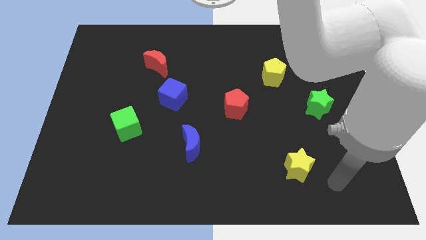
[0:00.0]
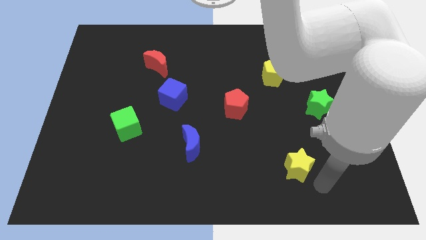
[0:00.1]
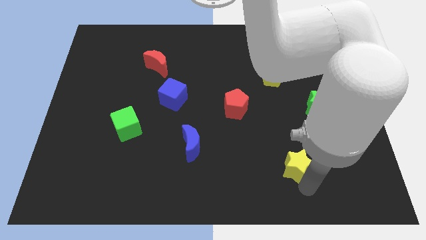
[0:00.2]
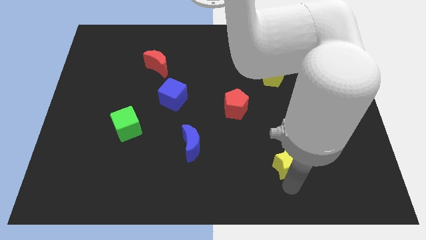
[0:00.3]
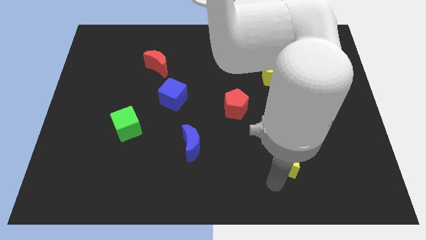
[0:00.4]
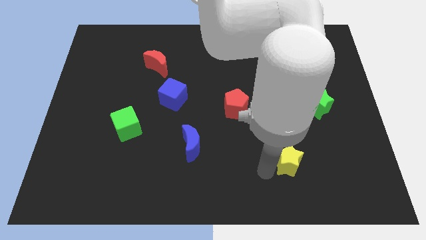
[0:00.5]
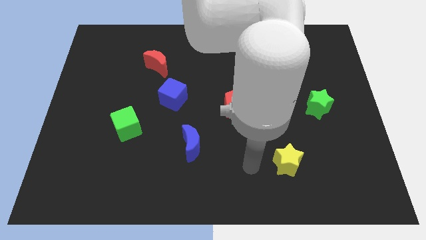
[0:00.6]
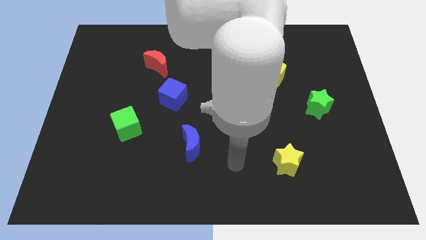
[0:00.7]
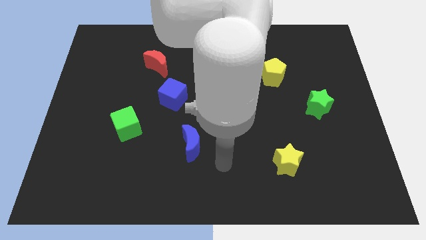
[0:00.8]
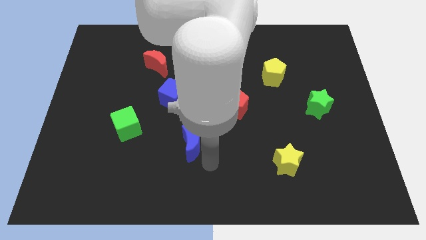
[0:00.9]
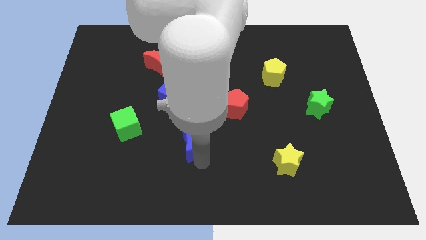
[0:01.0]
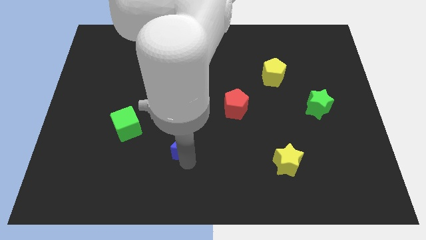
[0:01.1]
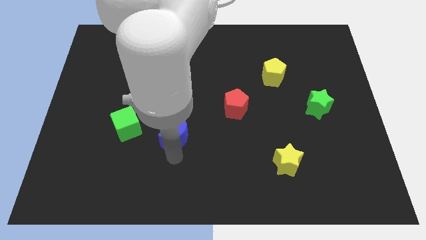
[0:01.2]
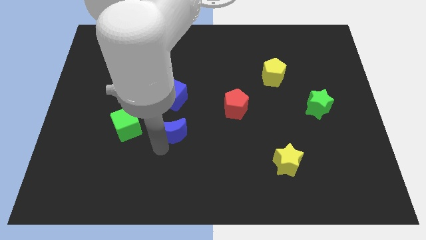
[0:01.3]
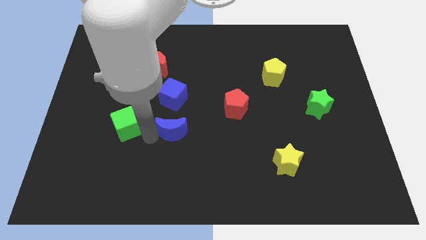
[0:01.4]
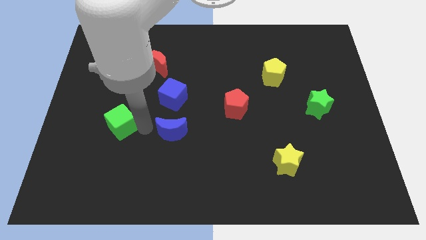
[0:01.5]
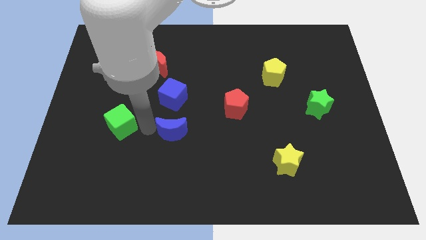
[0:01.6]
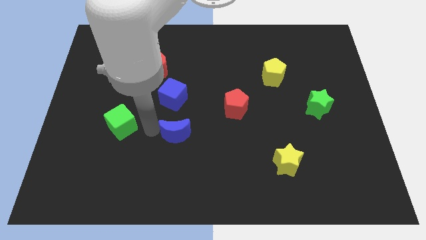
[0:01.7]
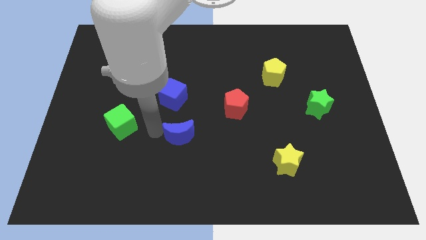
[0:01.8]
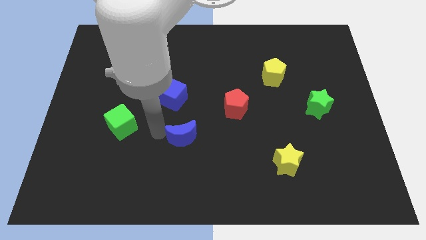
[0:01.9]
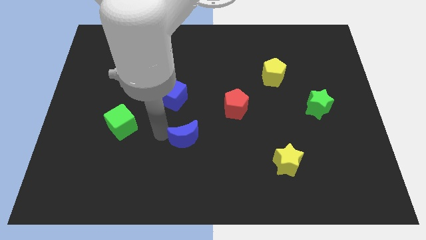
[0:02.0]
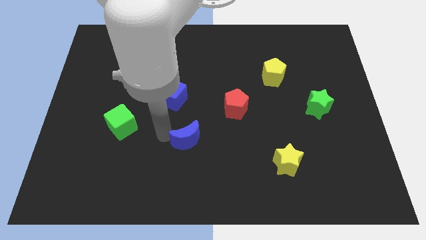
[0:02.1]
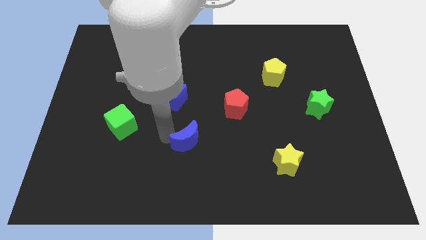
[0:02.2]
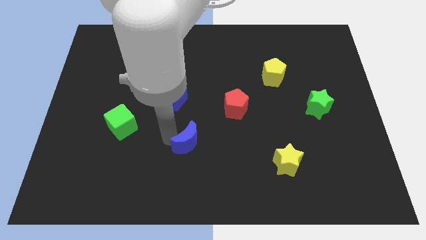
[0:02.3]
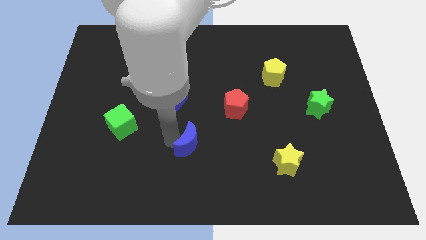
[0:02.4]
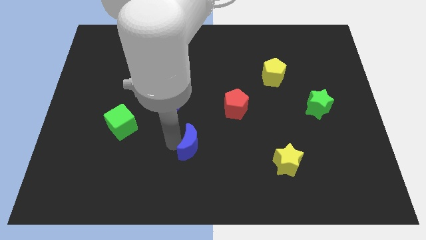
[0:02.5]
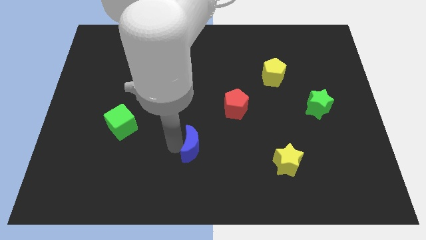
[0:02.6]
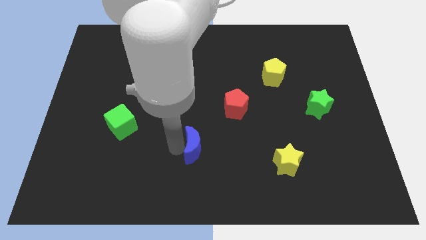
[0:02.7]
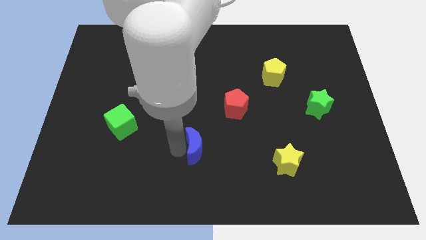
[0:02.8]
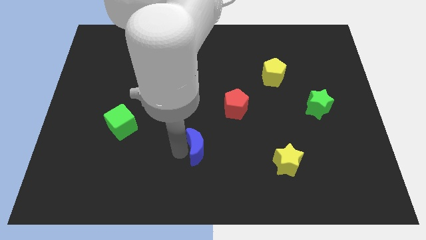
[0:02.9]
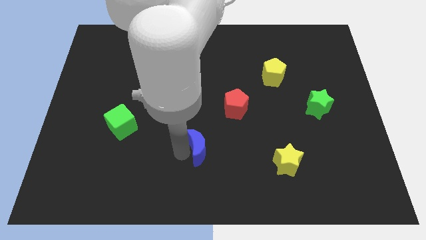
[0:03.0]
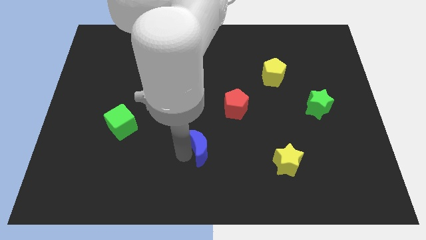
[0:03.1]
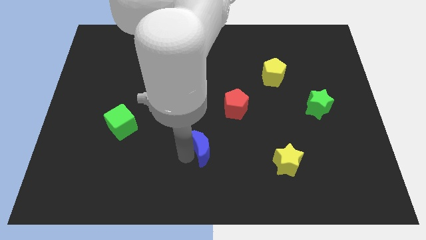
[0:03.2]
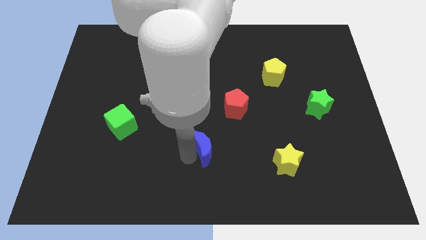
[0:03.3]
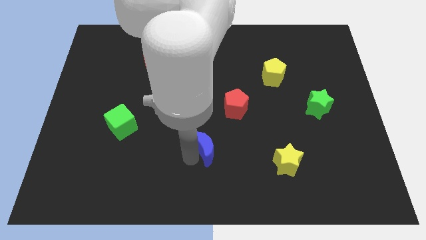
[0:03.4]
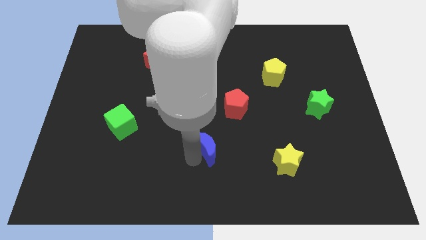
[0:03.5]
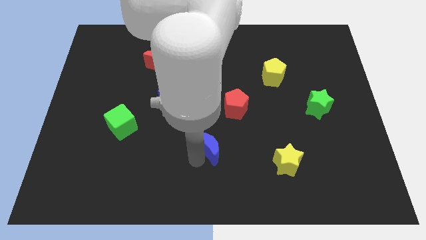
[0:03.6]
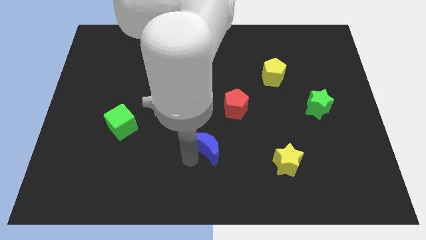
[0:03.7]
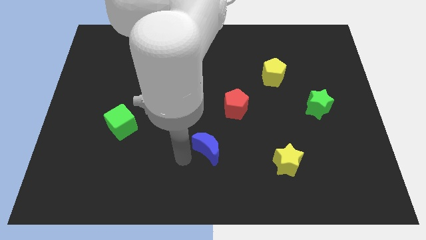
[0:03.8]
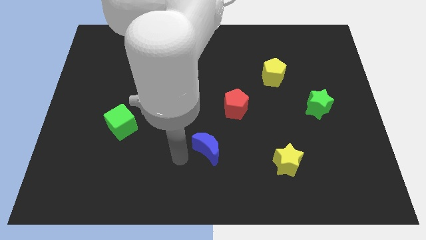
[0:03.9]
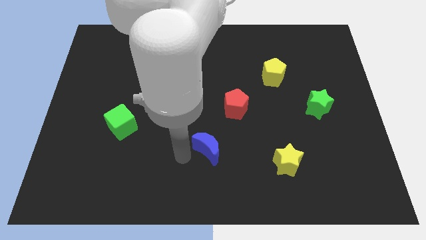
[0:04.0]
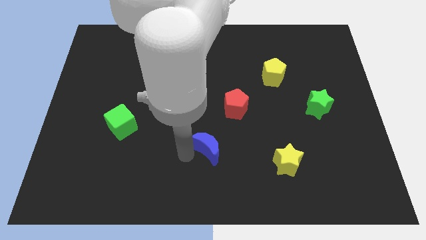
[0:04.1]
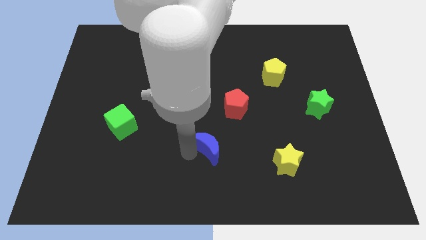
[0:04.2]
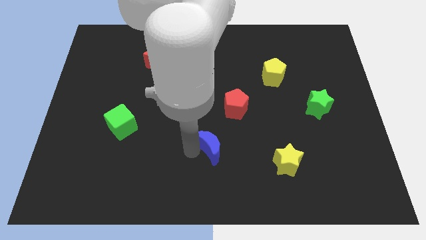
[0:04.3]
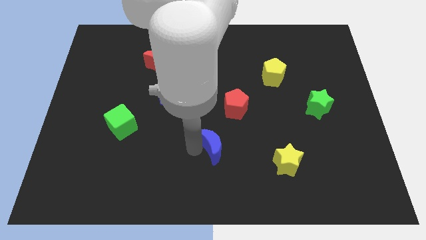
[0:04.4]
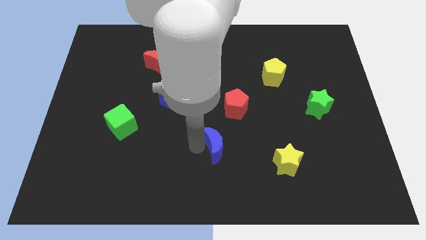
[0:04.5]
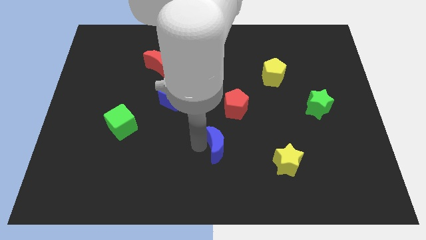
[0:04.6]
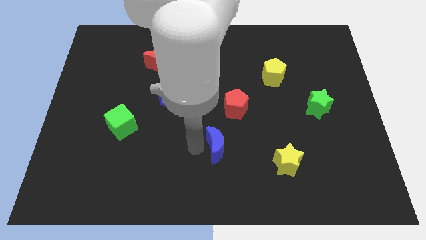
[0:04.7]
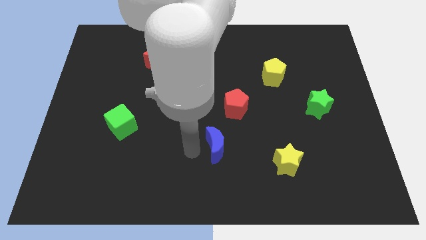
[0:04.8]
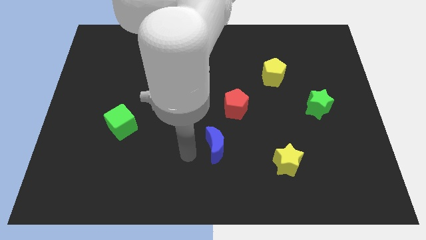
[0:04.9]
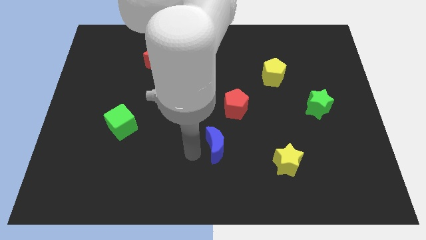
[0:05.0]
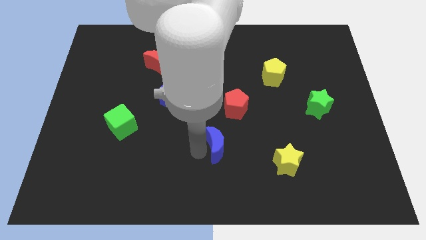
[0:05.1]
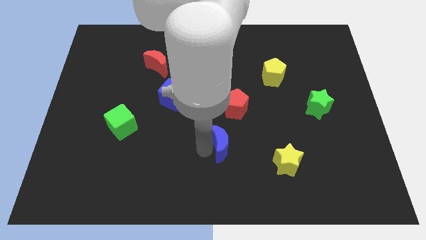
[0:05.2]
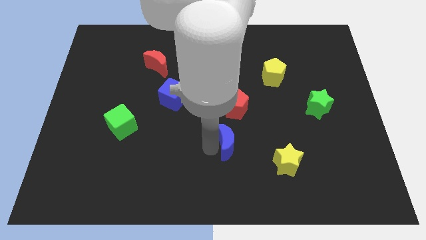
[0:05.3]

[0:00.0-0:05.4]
push the blue moon a little bit to the right

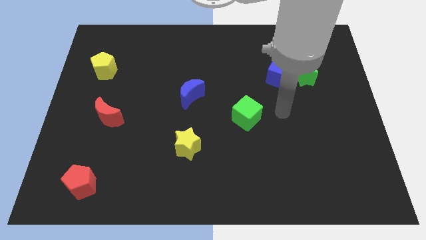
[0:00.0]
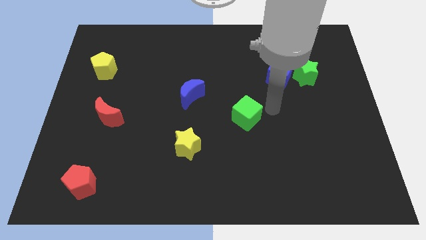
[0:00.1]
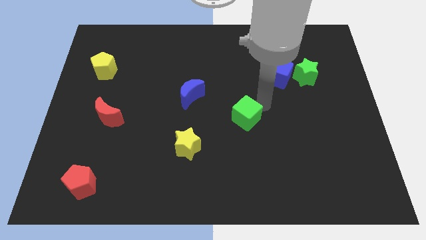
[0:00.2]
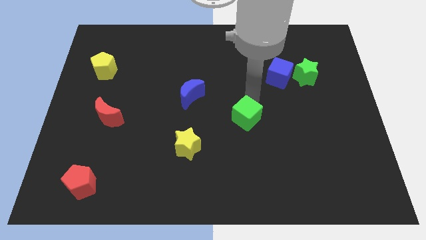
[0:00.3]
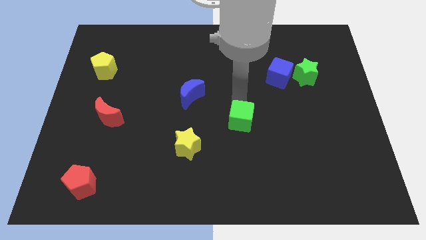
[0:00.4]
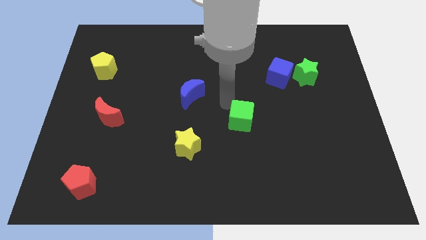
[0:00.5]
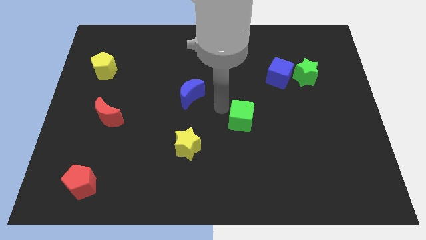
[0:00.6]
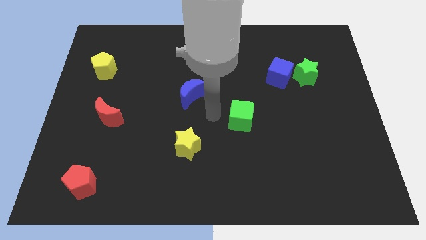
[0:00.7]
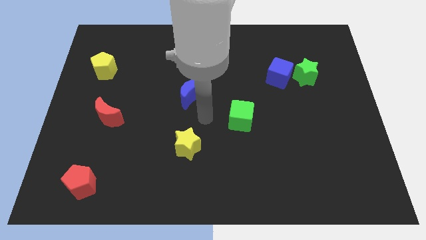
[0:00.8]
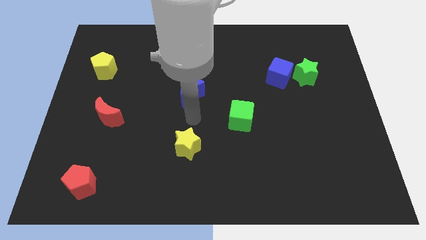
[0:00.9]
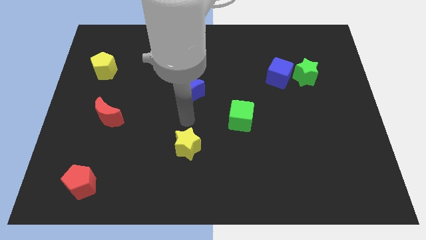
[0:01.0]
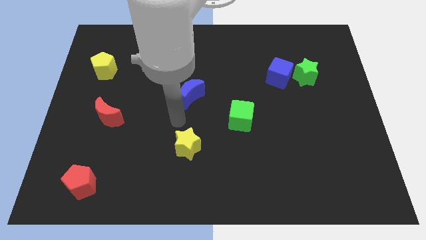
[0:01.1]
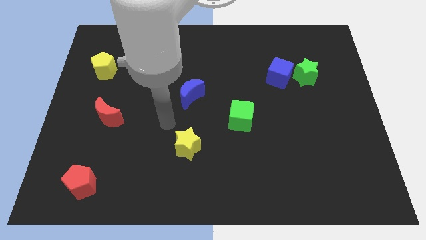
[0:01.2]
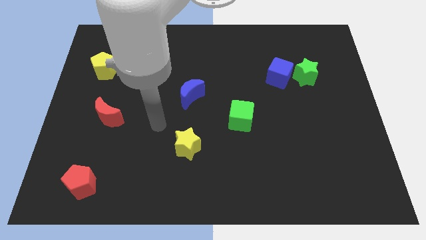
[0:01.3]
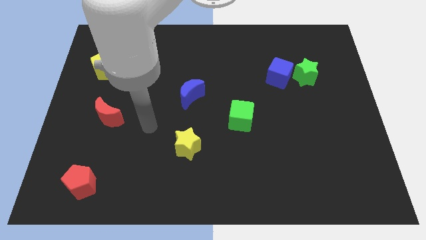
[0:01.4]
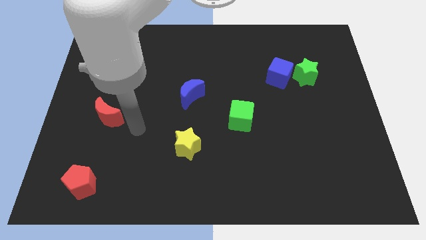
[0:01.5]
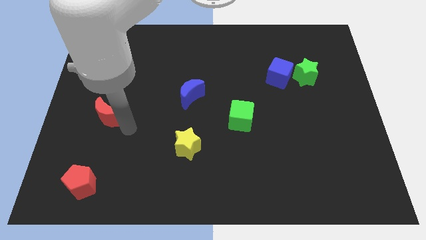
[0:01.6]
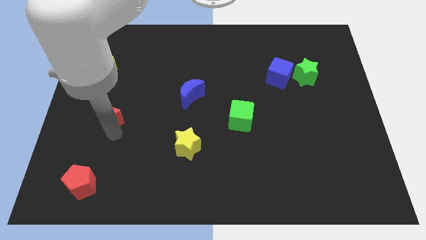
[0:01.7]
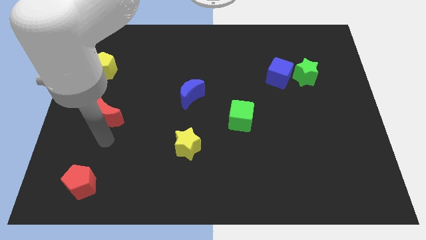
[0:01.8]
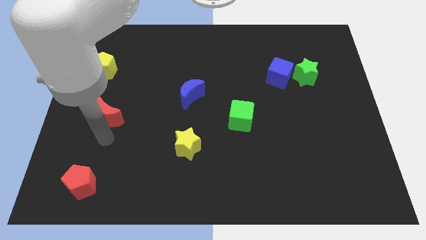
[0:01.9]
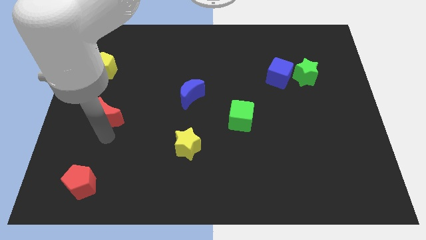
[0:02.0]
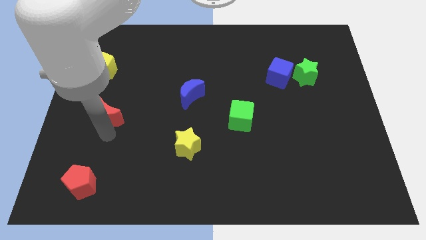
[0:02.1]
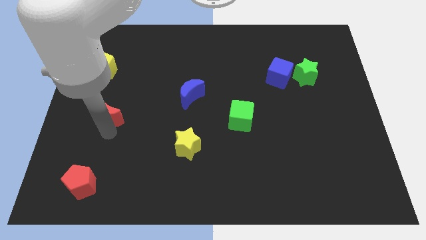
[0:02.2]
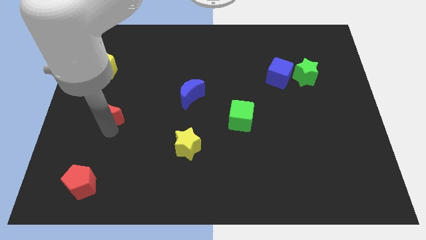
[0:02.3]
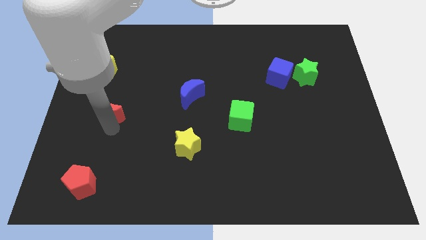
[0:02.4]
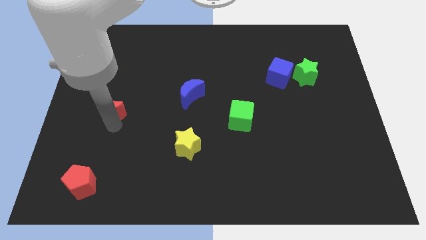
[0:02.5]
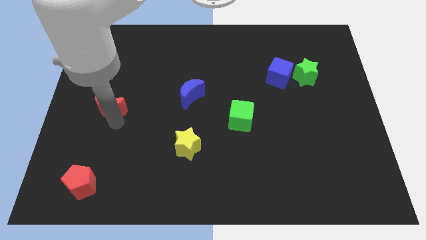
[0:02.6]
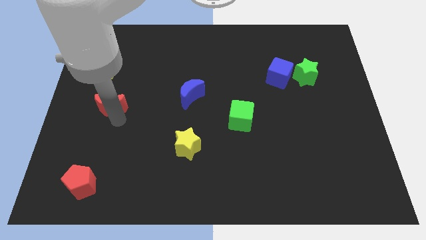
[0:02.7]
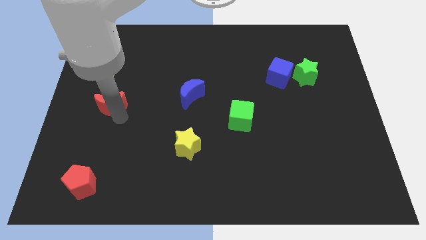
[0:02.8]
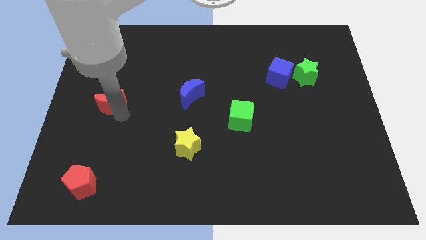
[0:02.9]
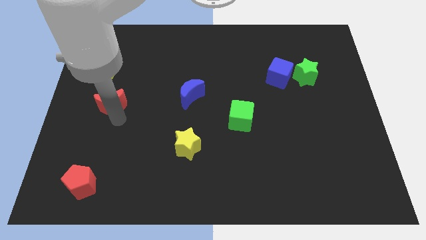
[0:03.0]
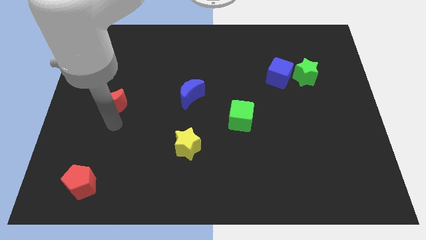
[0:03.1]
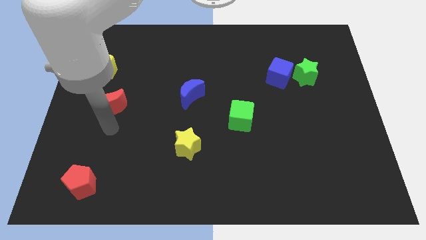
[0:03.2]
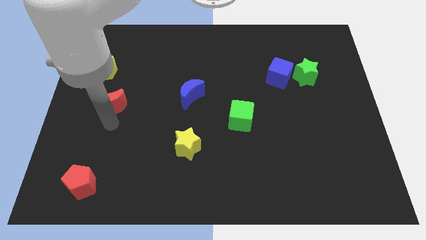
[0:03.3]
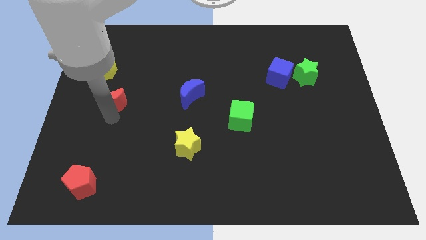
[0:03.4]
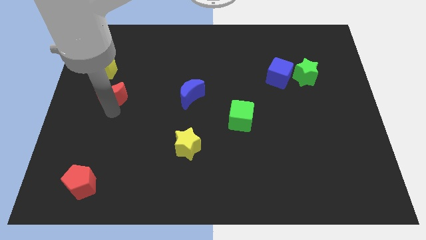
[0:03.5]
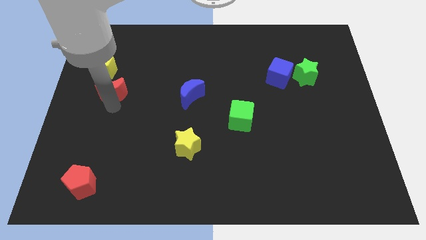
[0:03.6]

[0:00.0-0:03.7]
slide the red moon a little upwards
